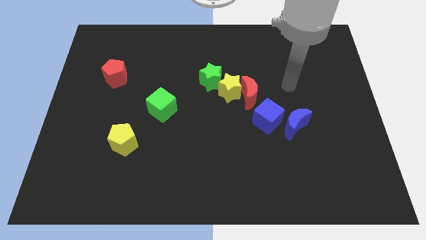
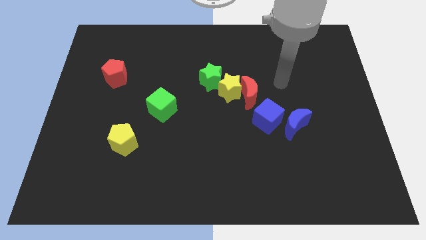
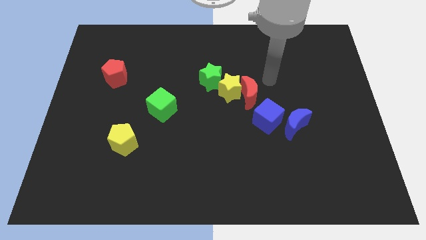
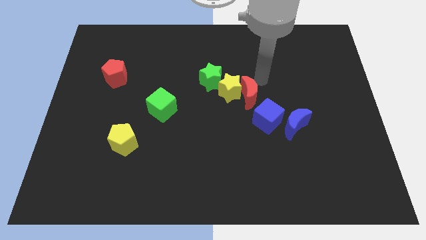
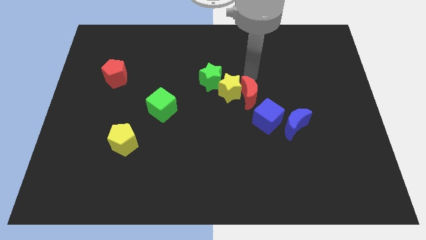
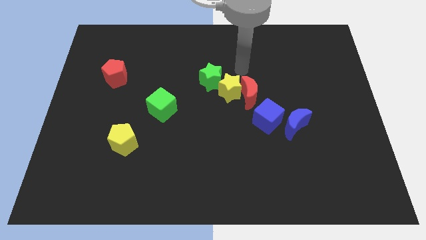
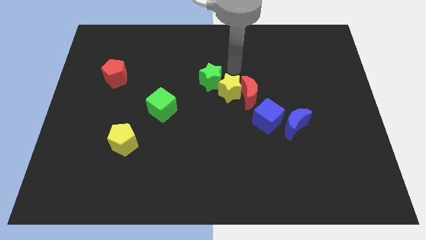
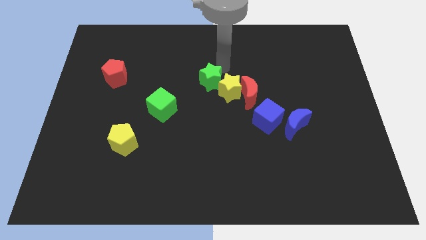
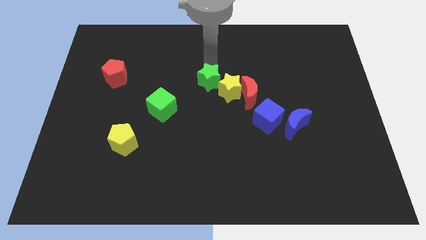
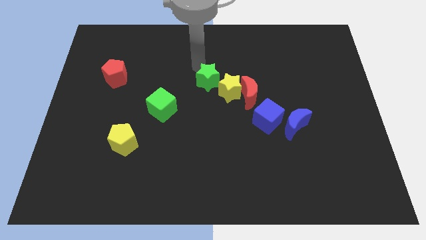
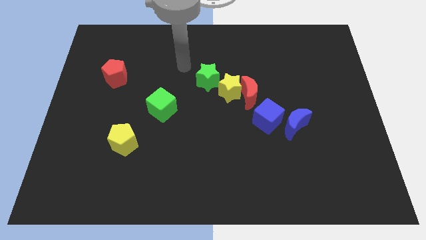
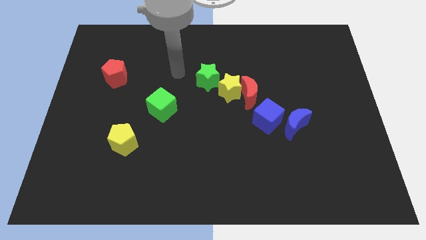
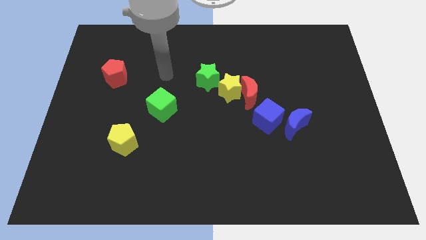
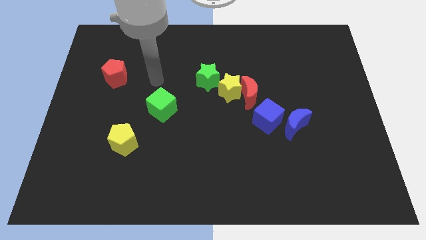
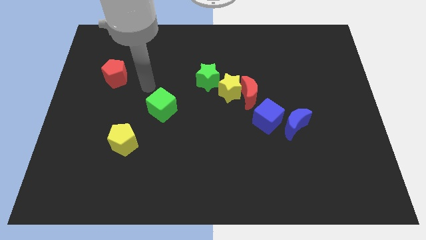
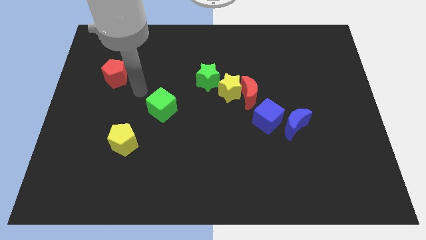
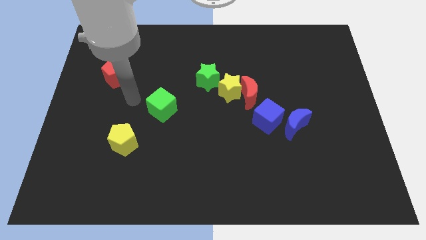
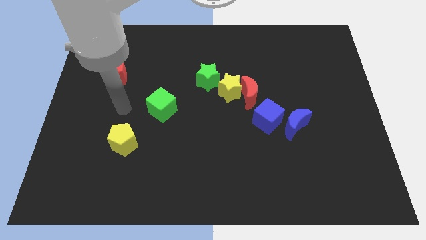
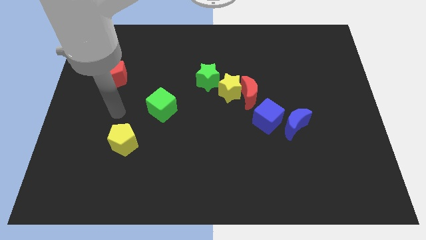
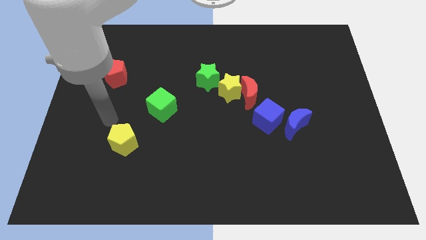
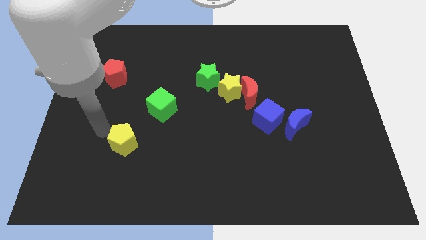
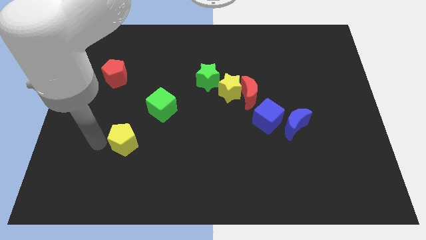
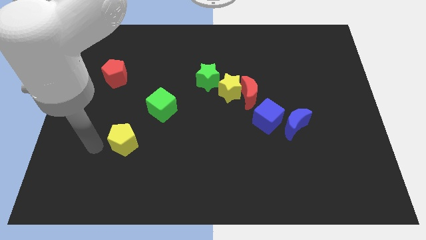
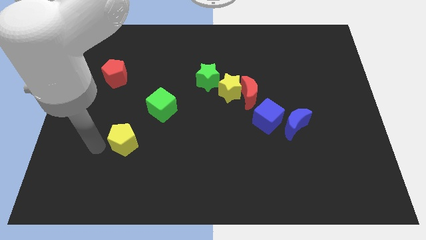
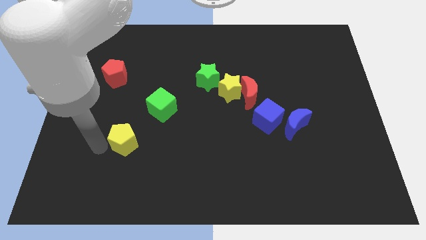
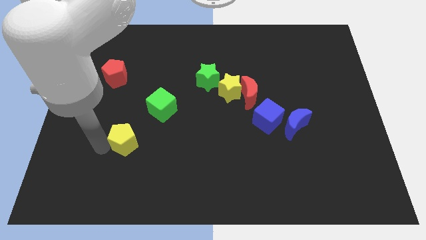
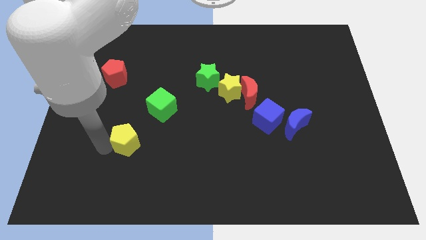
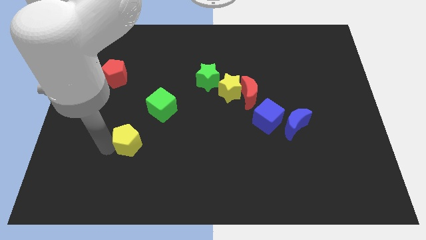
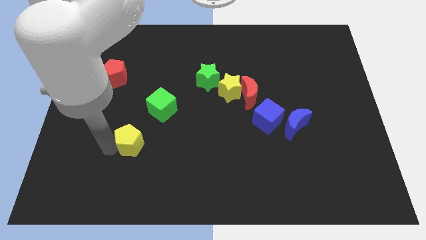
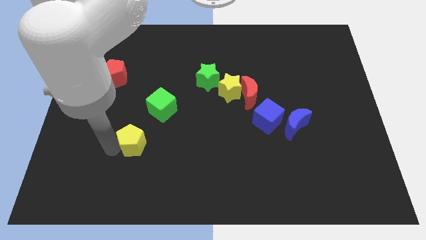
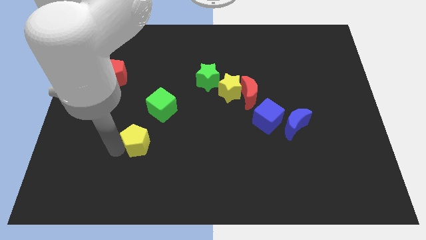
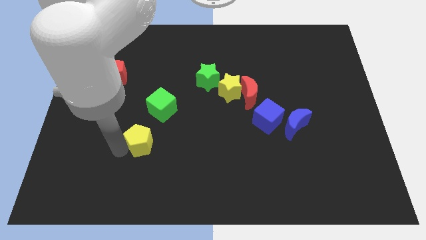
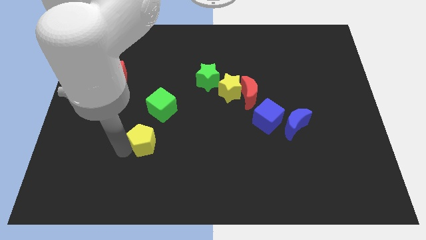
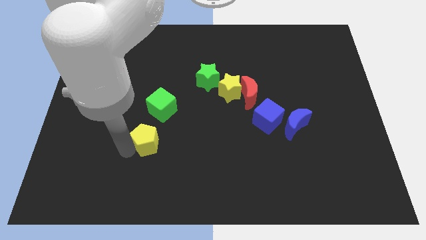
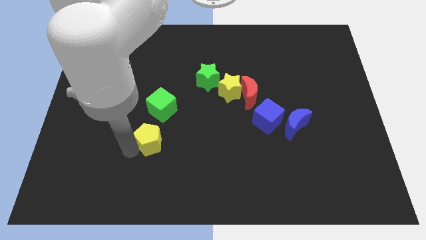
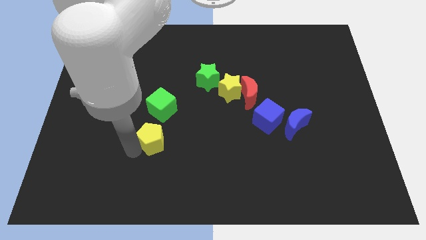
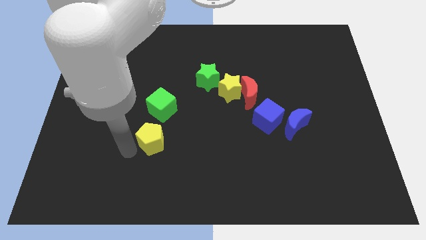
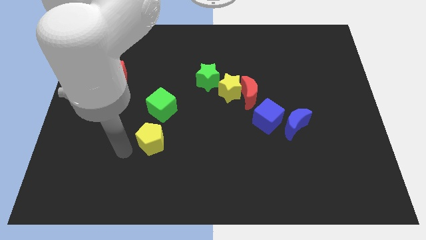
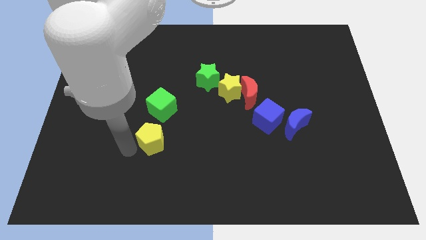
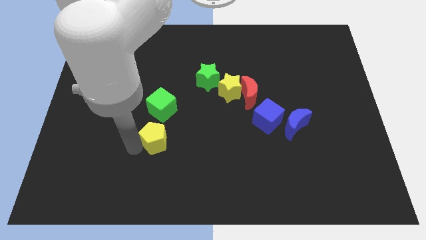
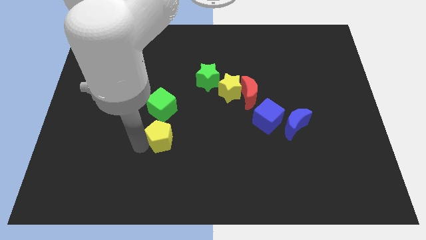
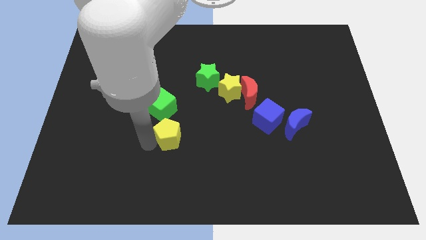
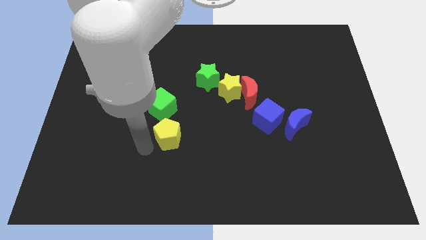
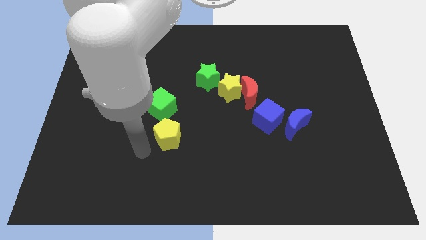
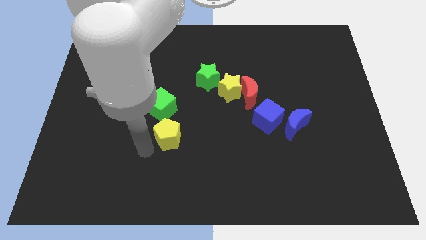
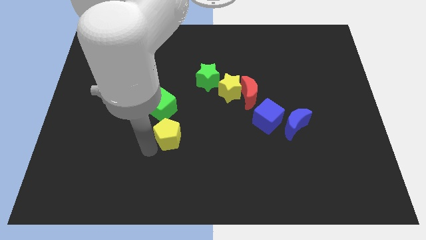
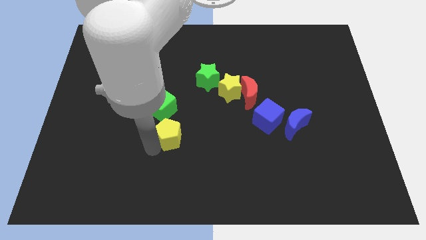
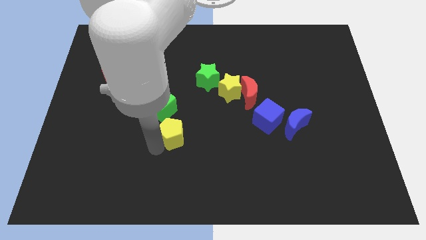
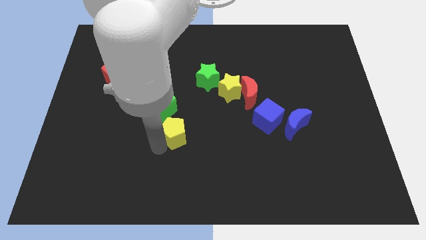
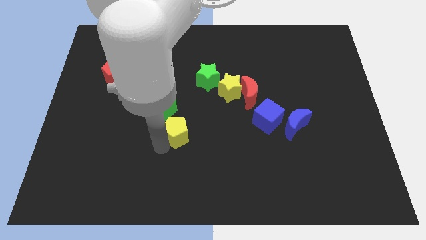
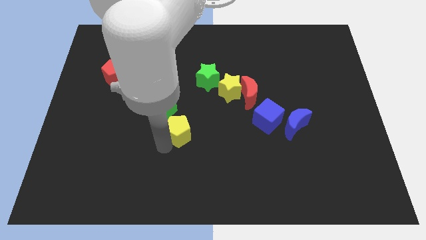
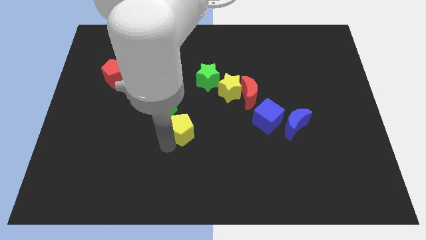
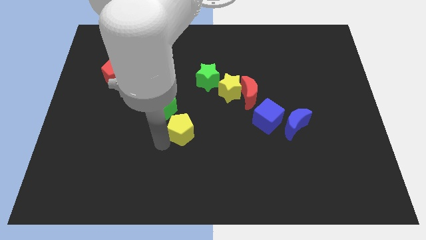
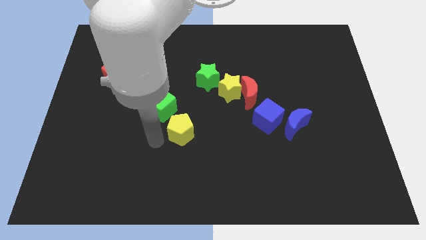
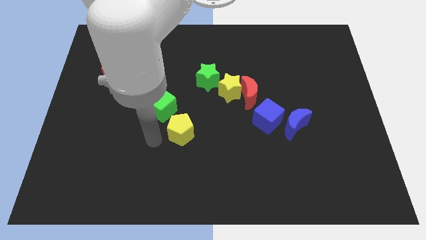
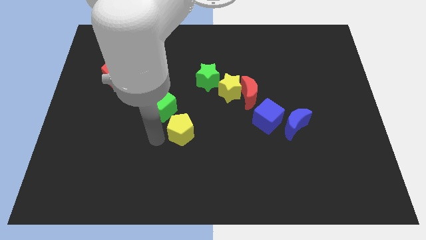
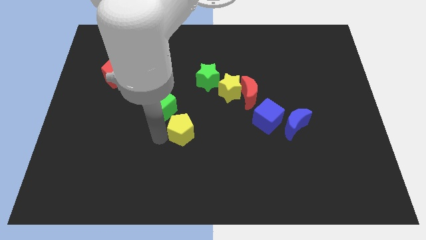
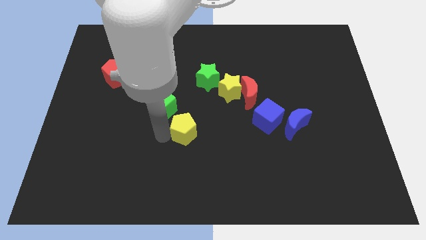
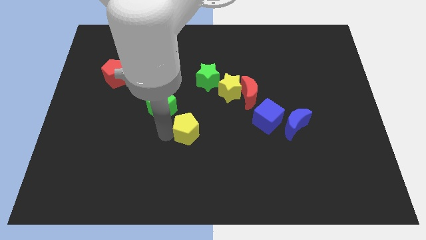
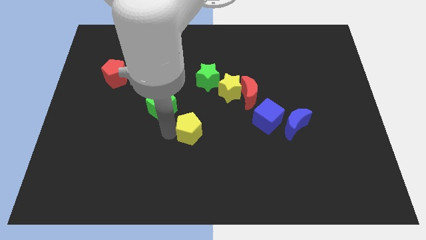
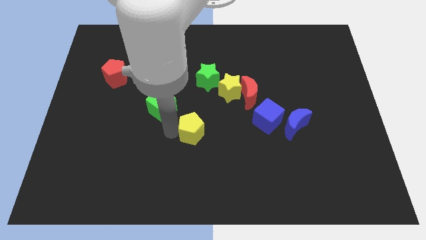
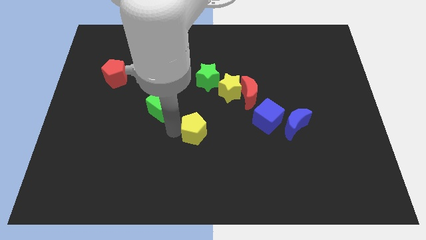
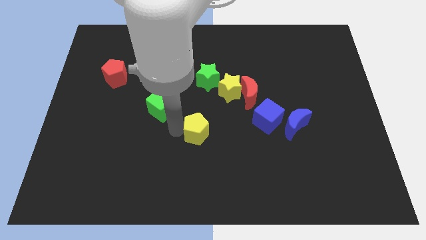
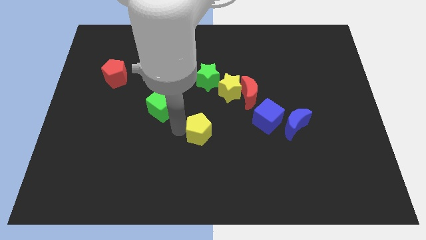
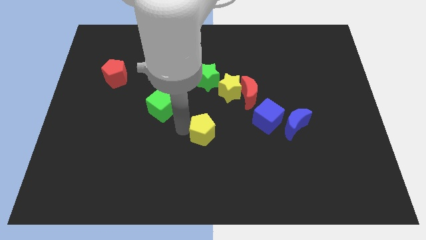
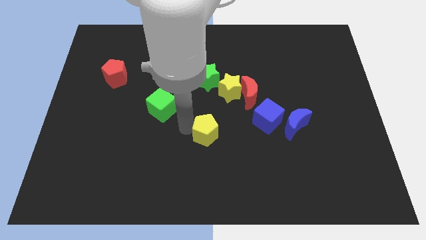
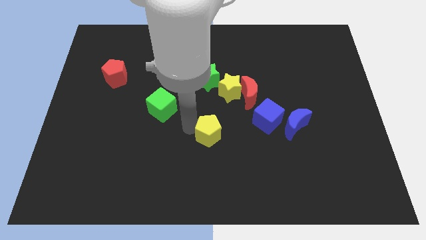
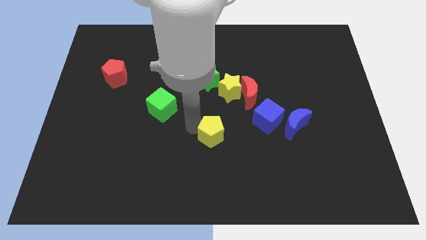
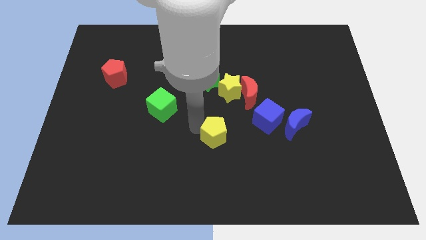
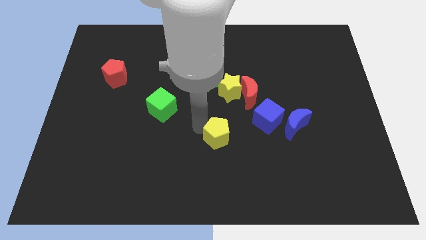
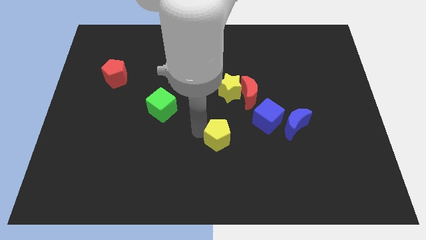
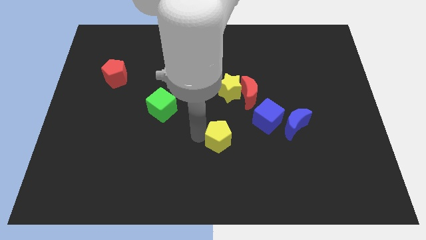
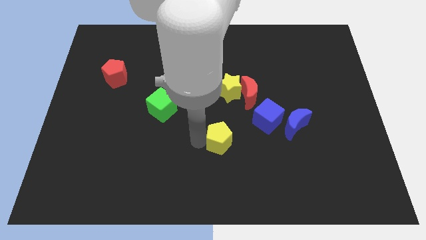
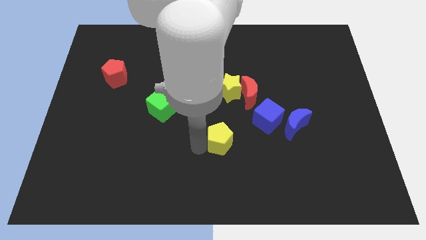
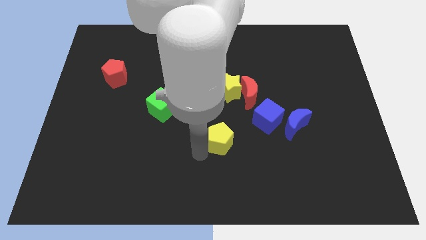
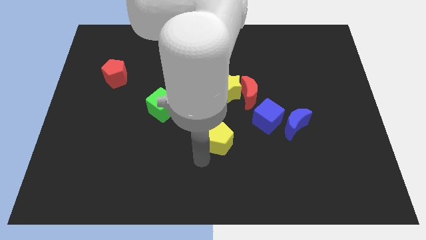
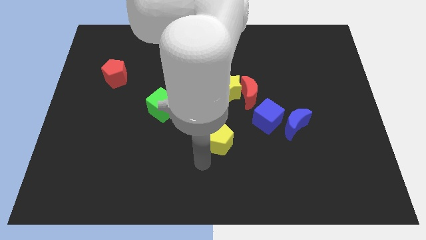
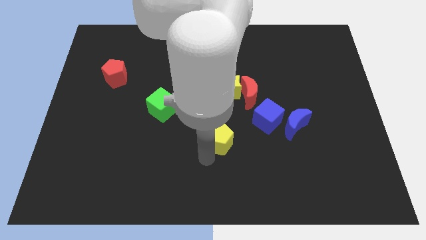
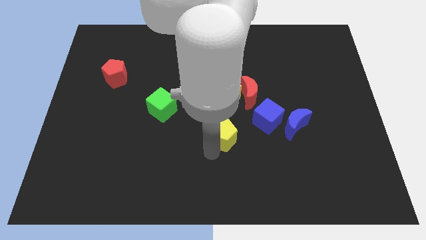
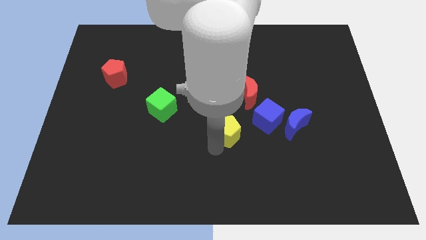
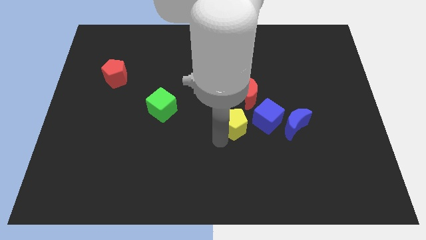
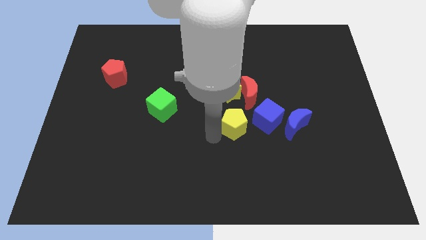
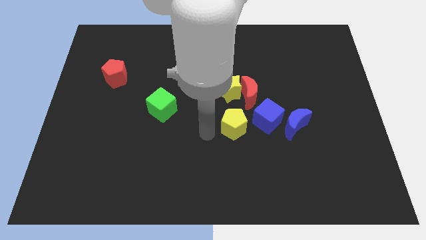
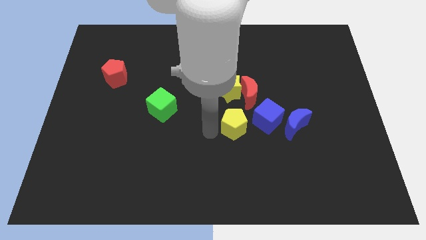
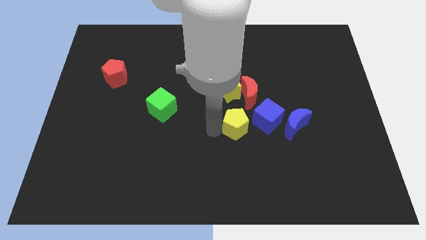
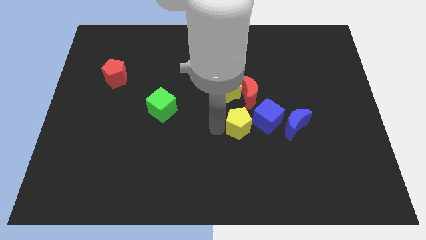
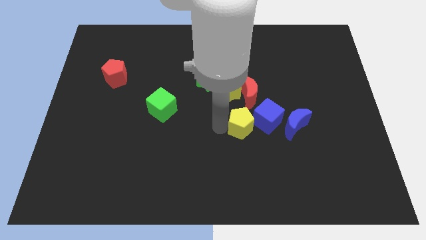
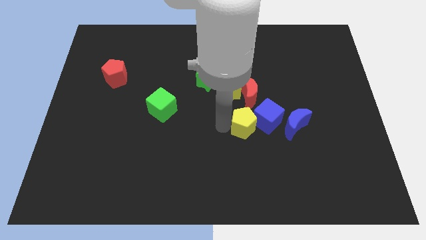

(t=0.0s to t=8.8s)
put the yellow pentagon towards the blue cube
